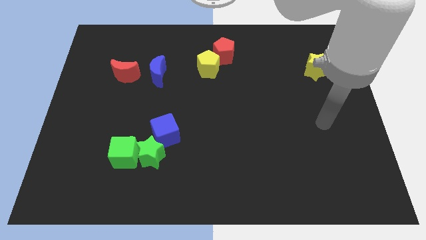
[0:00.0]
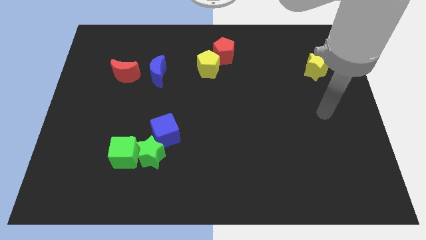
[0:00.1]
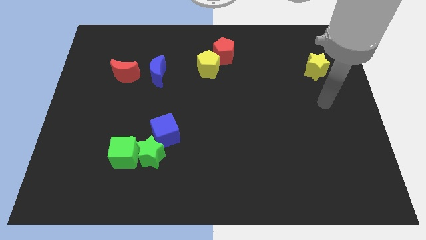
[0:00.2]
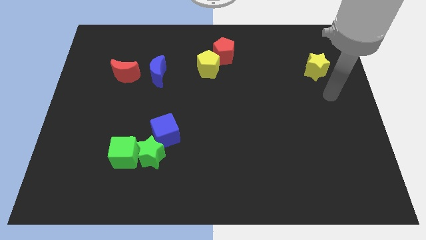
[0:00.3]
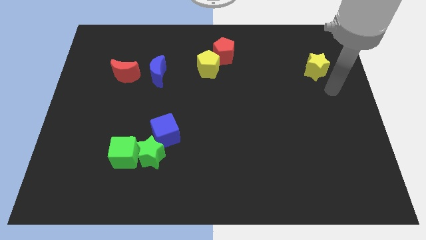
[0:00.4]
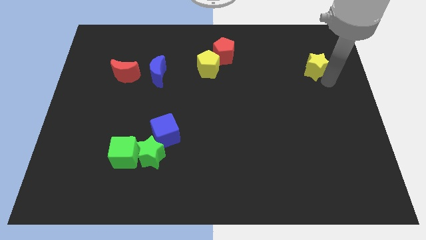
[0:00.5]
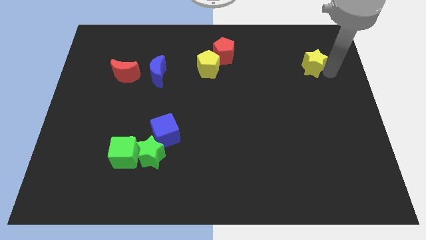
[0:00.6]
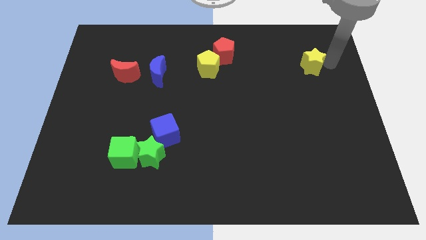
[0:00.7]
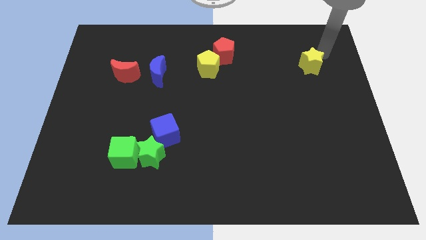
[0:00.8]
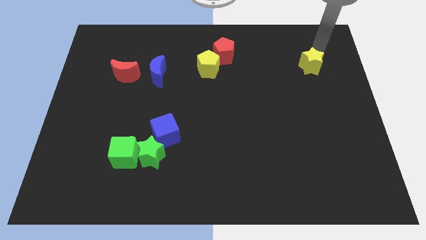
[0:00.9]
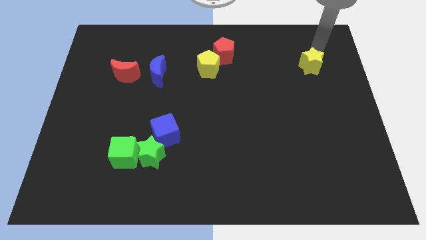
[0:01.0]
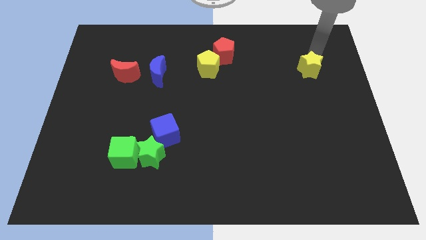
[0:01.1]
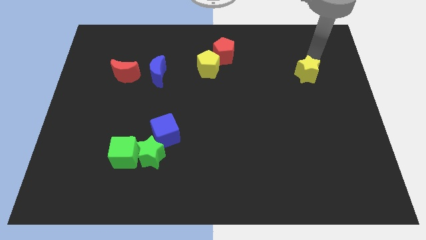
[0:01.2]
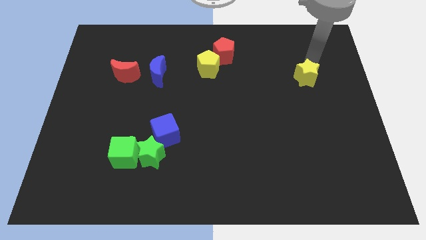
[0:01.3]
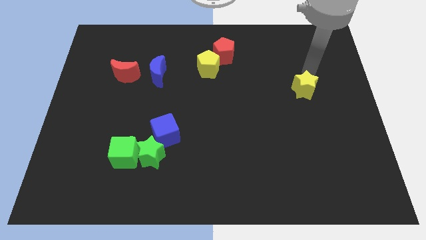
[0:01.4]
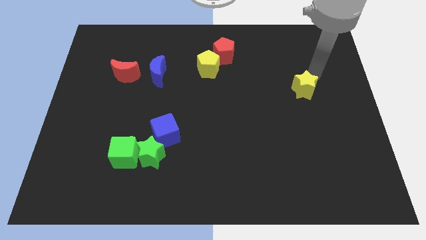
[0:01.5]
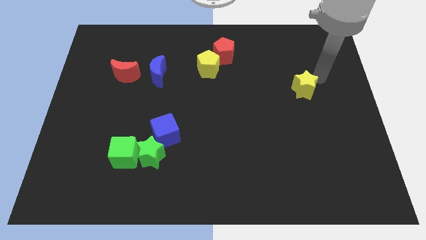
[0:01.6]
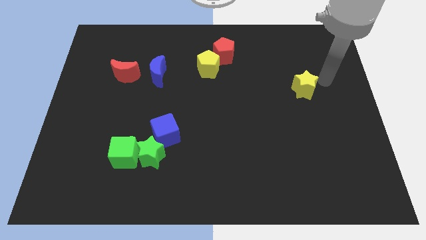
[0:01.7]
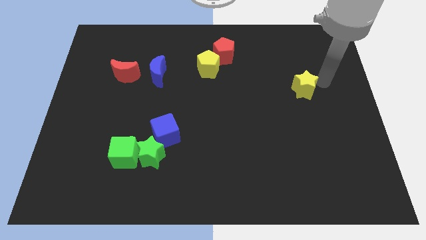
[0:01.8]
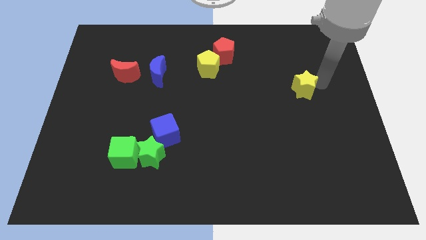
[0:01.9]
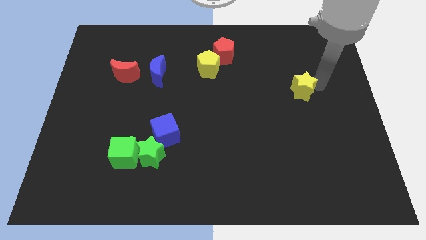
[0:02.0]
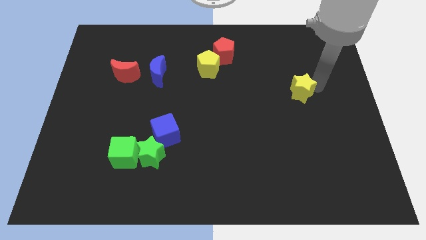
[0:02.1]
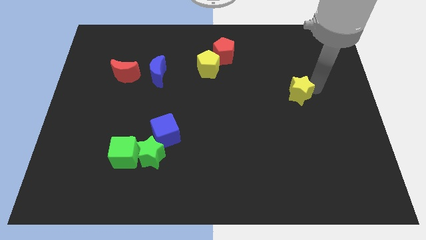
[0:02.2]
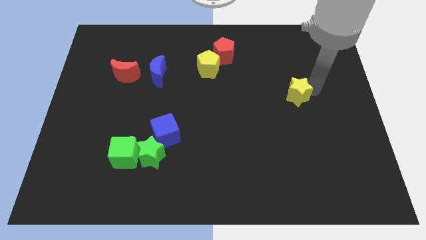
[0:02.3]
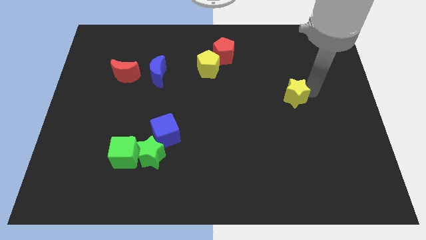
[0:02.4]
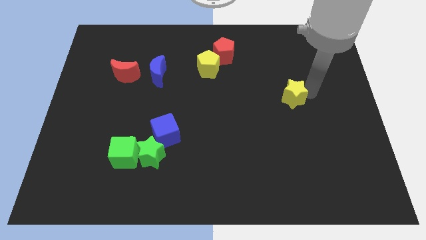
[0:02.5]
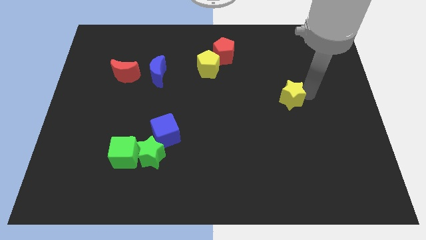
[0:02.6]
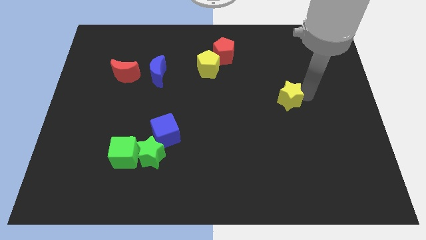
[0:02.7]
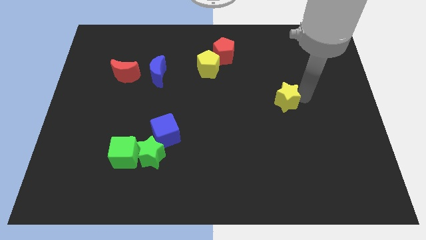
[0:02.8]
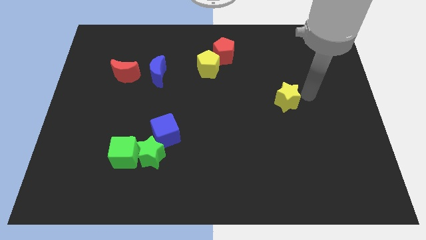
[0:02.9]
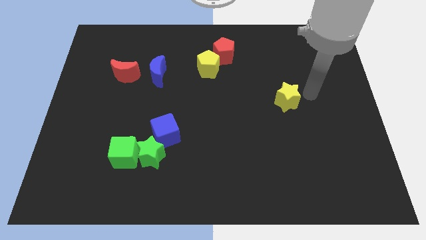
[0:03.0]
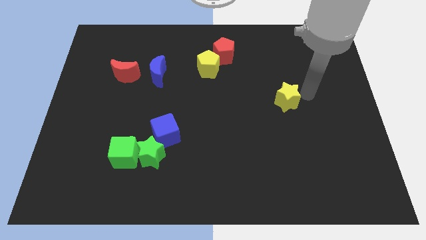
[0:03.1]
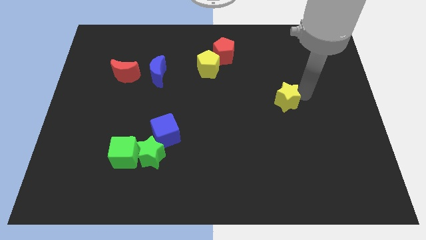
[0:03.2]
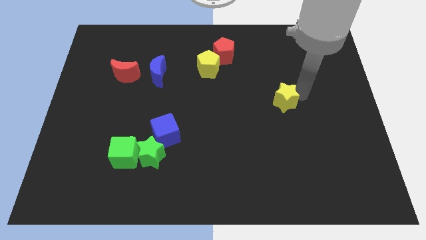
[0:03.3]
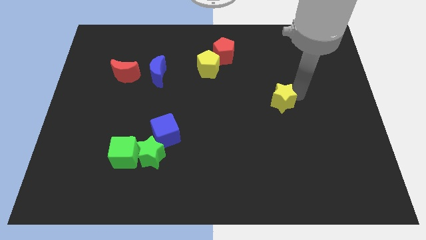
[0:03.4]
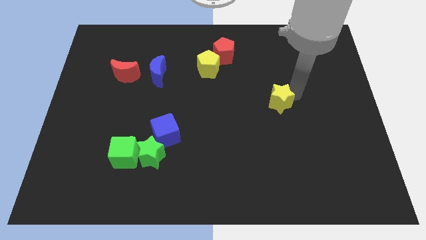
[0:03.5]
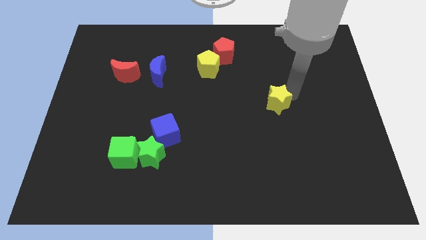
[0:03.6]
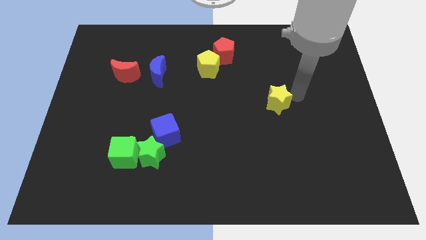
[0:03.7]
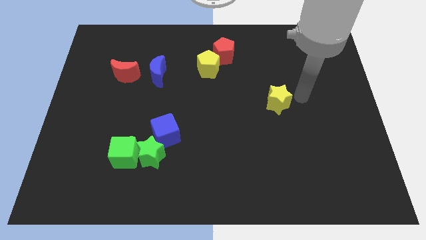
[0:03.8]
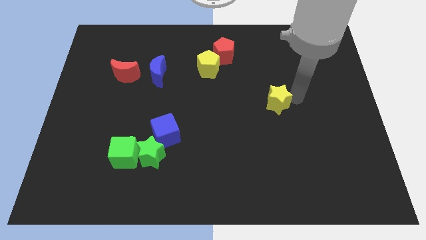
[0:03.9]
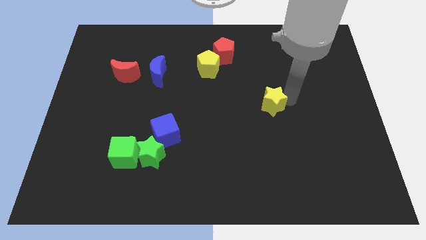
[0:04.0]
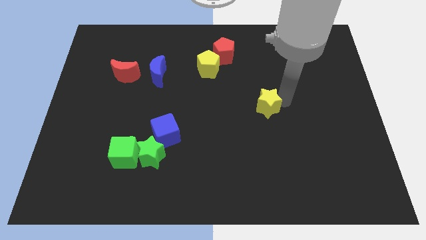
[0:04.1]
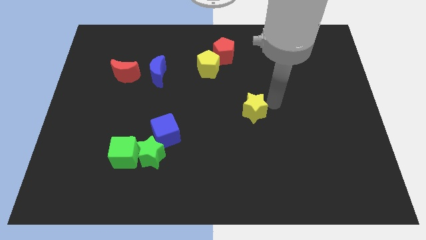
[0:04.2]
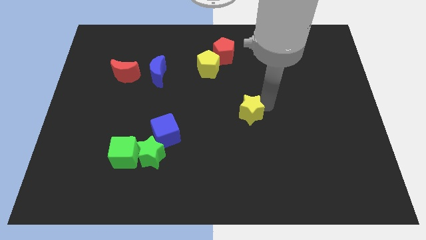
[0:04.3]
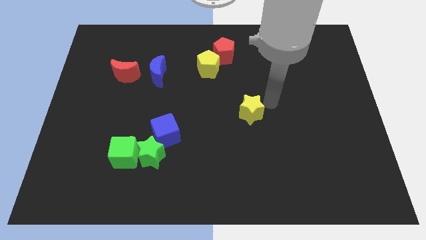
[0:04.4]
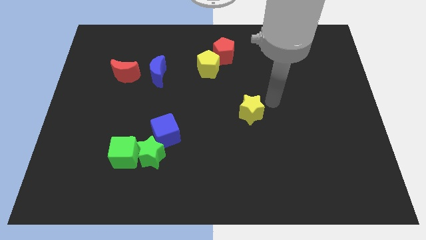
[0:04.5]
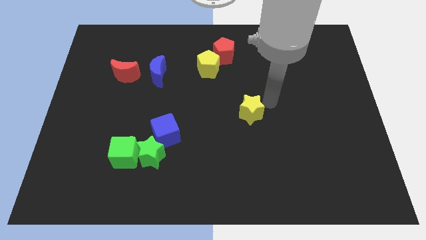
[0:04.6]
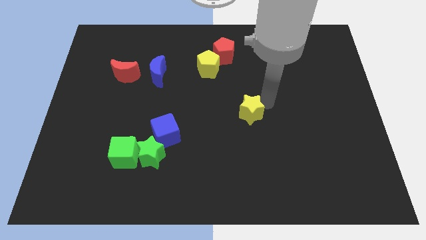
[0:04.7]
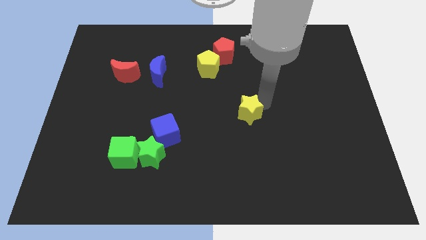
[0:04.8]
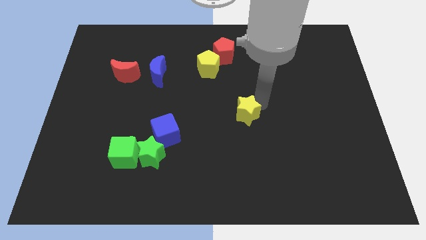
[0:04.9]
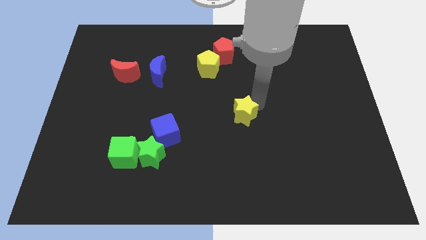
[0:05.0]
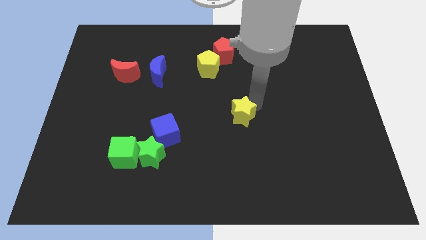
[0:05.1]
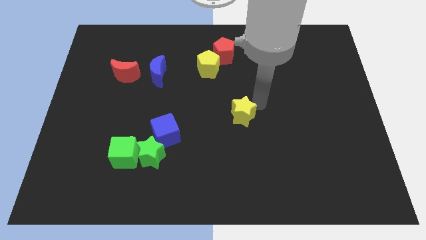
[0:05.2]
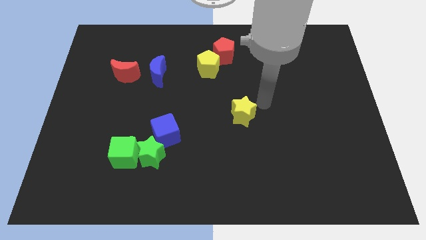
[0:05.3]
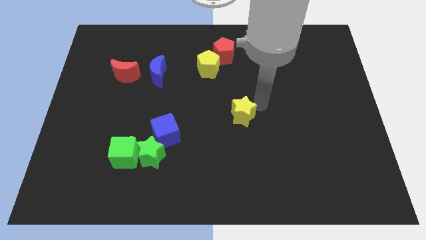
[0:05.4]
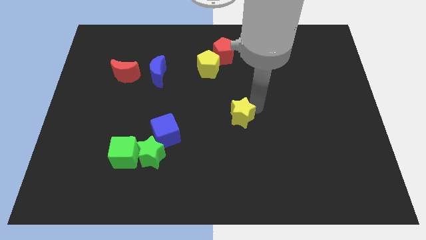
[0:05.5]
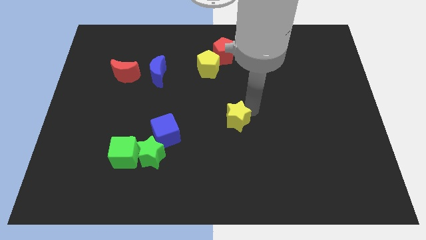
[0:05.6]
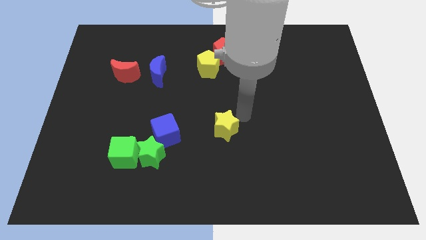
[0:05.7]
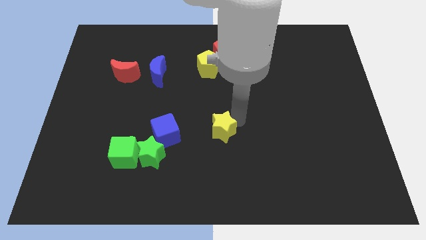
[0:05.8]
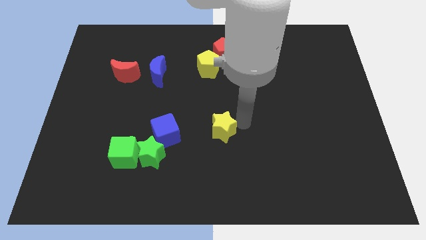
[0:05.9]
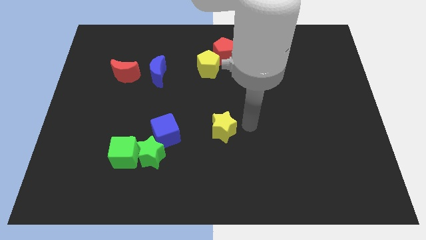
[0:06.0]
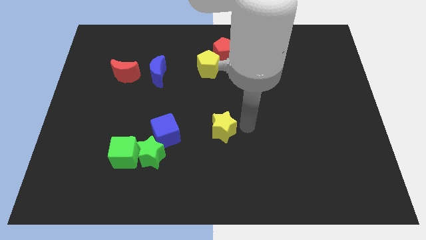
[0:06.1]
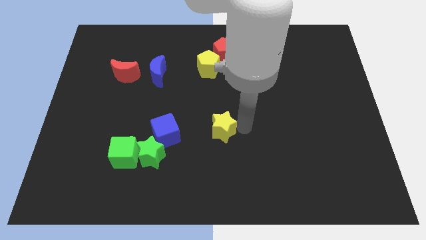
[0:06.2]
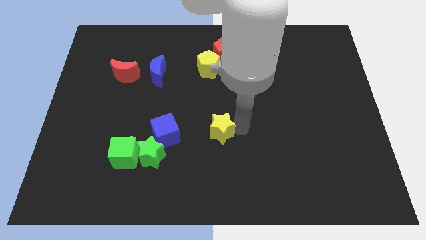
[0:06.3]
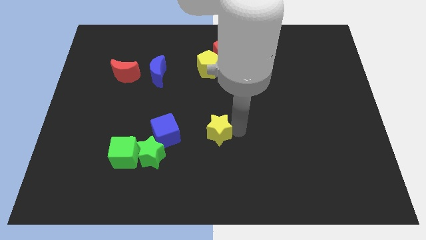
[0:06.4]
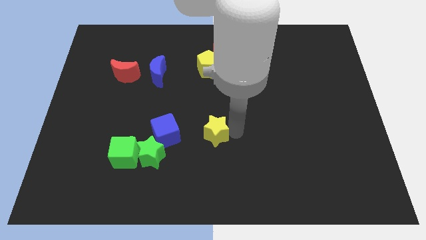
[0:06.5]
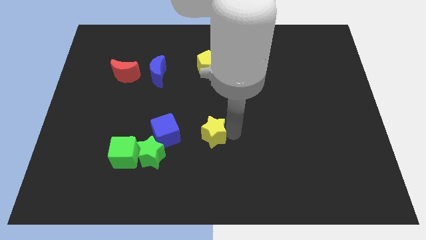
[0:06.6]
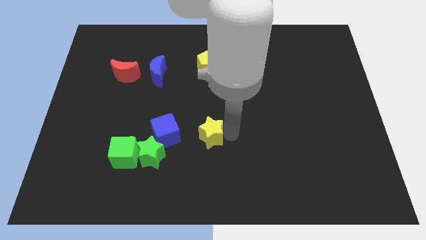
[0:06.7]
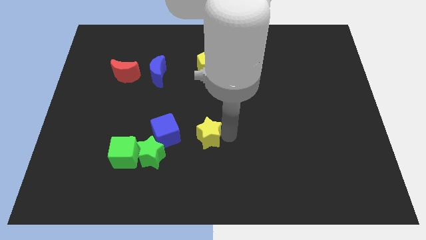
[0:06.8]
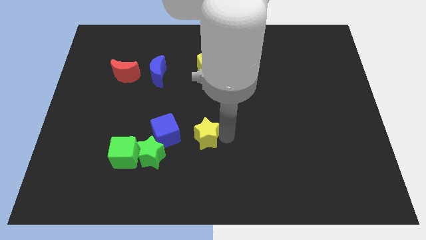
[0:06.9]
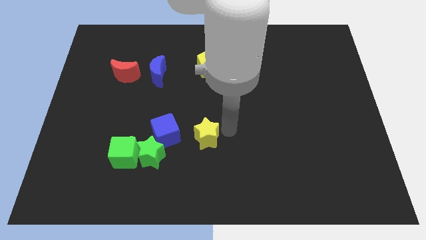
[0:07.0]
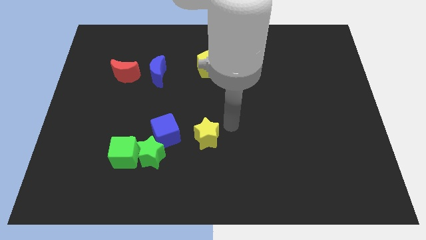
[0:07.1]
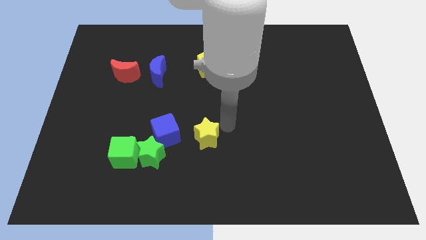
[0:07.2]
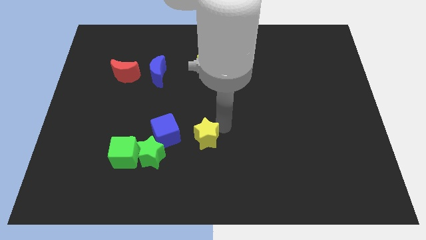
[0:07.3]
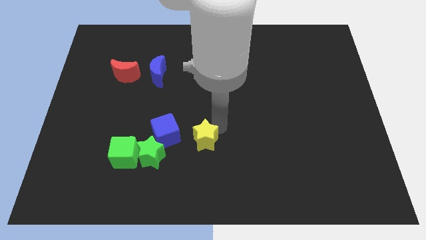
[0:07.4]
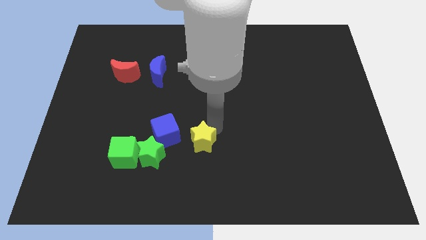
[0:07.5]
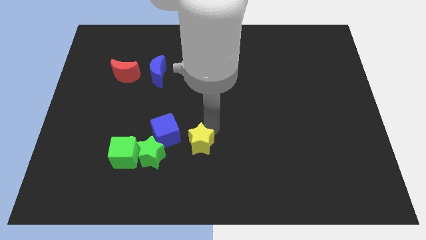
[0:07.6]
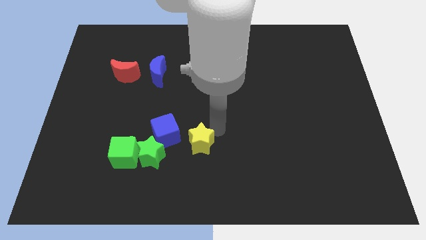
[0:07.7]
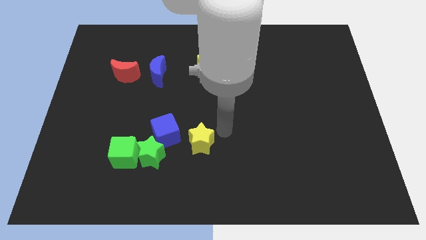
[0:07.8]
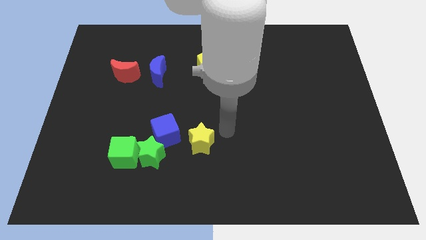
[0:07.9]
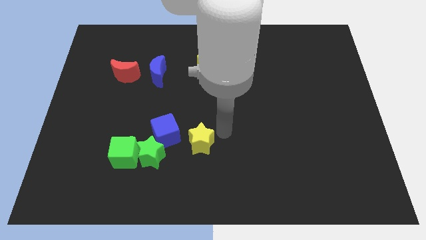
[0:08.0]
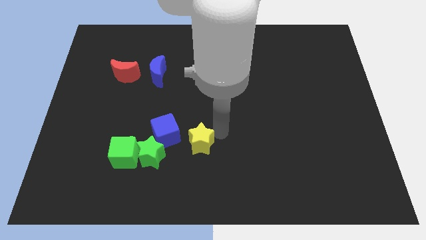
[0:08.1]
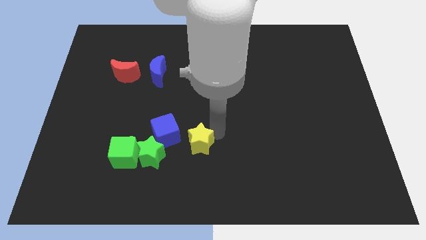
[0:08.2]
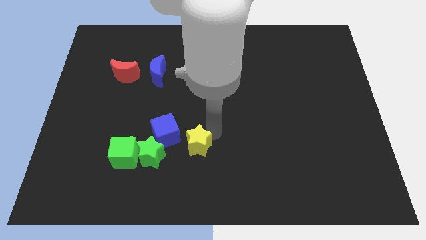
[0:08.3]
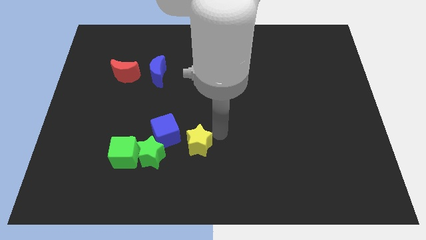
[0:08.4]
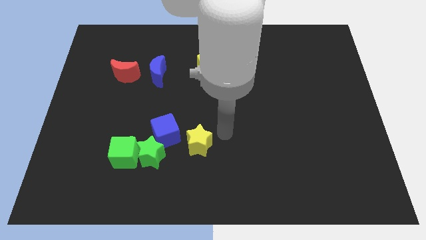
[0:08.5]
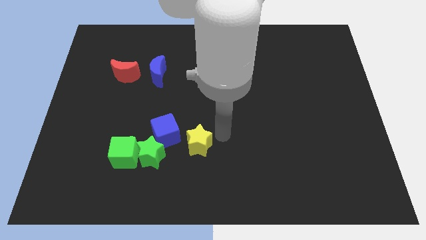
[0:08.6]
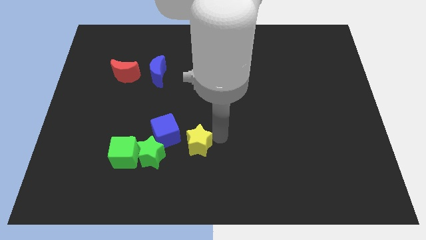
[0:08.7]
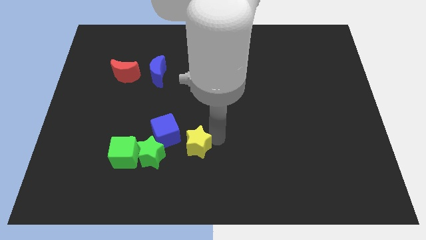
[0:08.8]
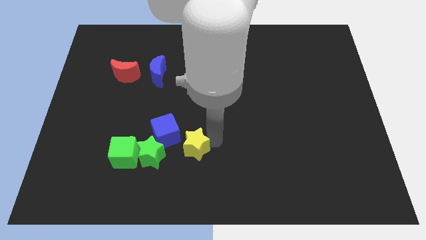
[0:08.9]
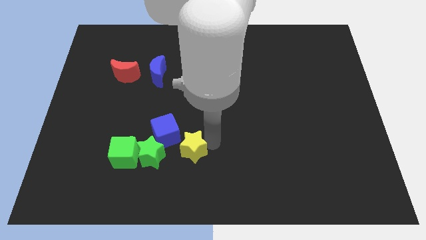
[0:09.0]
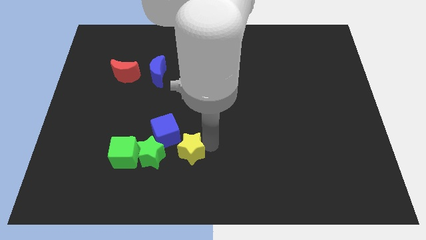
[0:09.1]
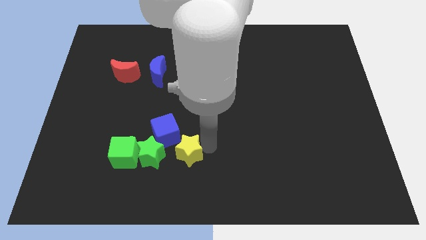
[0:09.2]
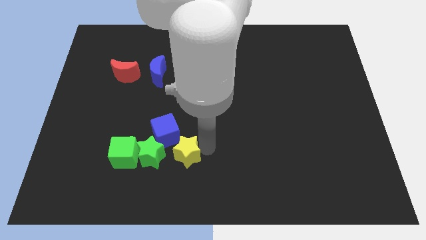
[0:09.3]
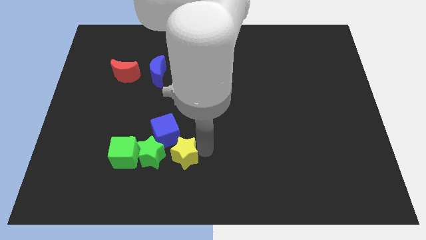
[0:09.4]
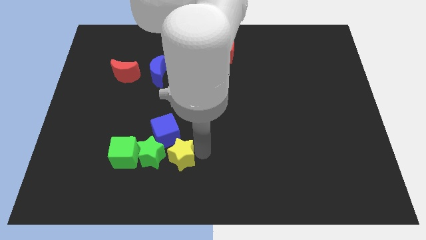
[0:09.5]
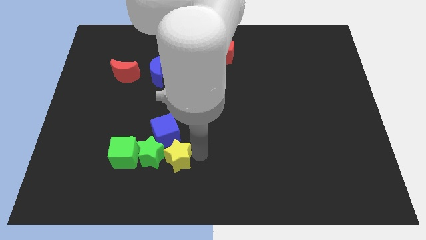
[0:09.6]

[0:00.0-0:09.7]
slide the yellow star next to the green star
